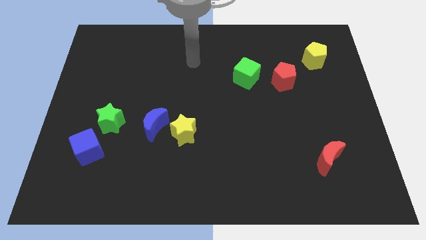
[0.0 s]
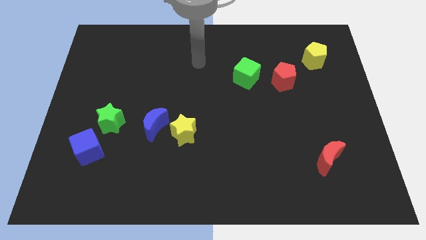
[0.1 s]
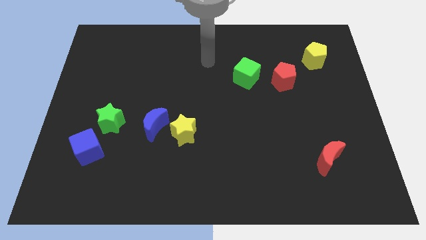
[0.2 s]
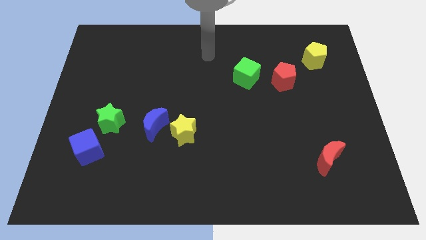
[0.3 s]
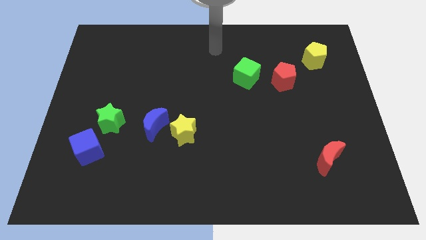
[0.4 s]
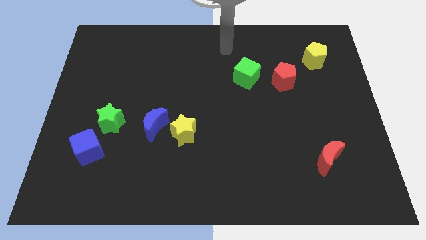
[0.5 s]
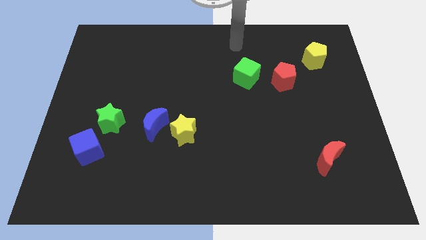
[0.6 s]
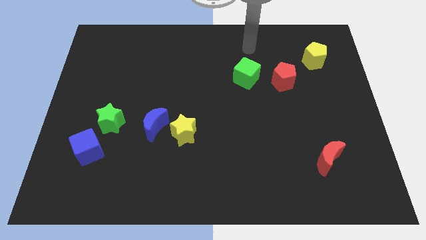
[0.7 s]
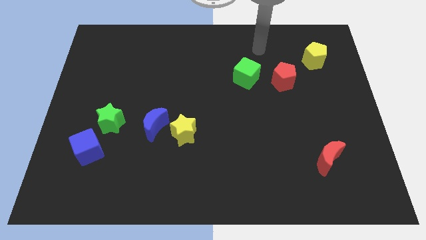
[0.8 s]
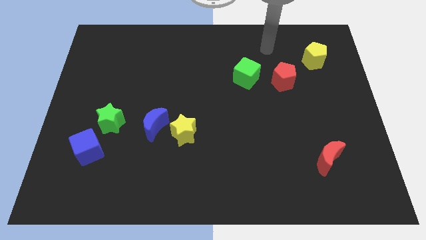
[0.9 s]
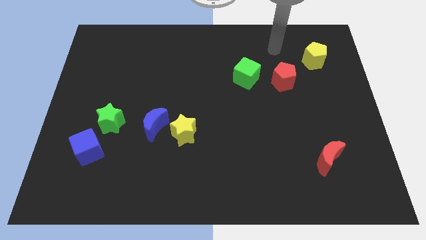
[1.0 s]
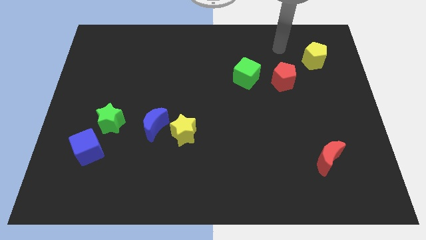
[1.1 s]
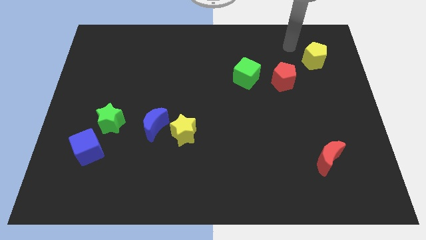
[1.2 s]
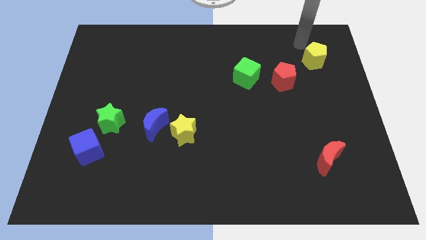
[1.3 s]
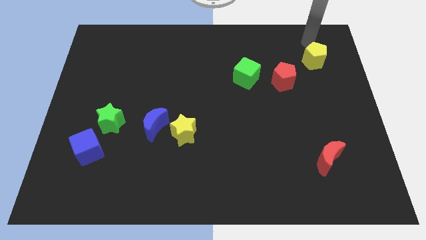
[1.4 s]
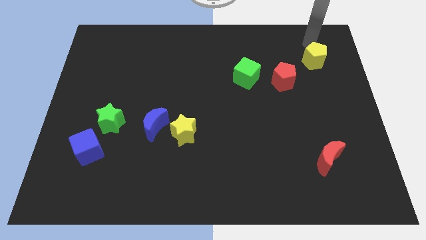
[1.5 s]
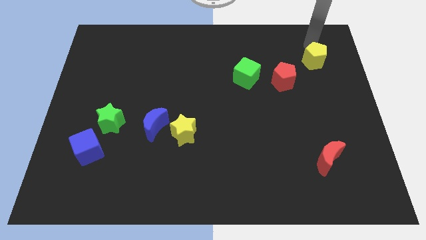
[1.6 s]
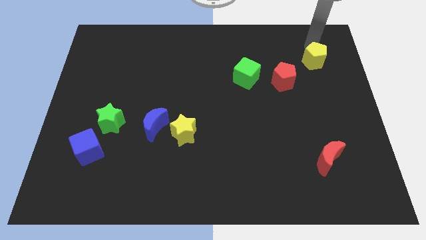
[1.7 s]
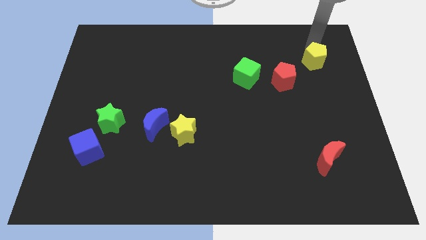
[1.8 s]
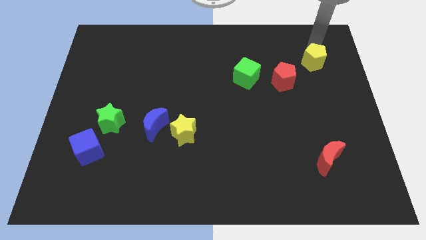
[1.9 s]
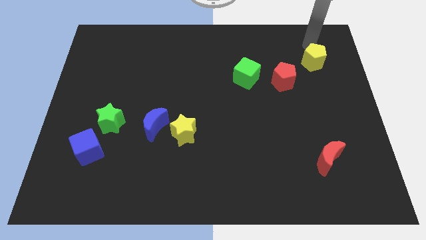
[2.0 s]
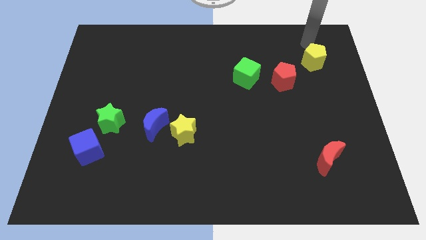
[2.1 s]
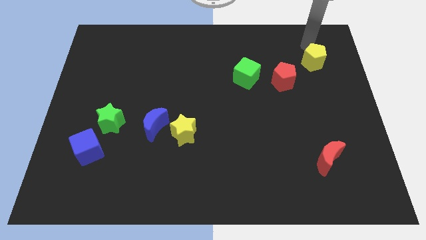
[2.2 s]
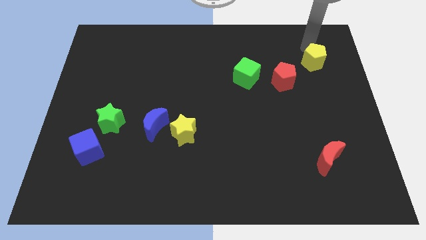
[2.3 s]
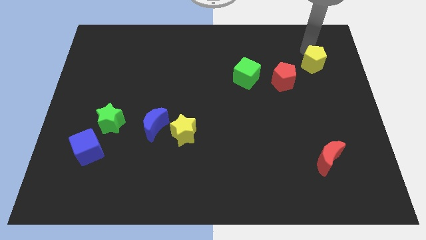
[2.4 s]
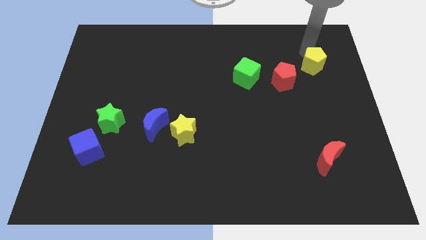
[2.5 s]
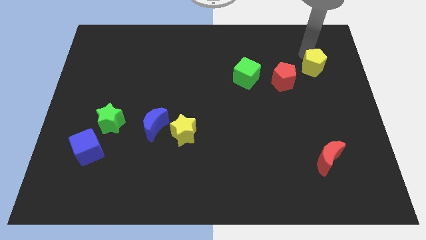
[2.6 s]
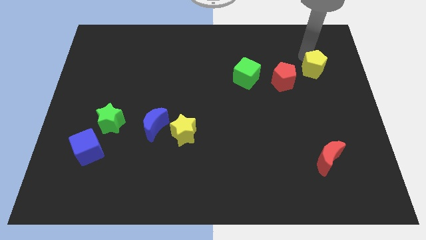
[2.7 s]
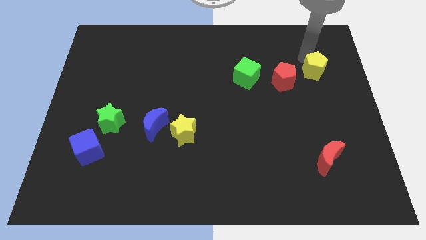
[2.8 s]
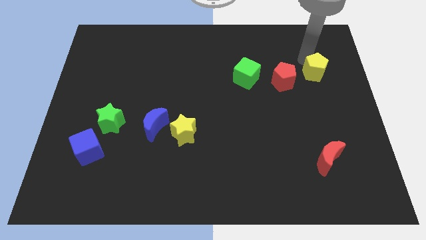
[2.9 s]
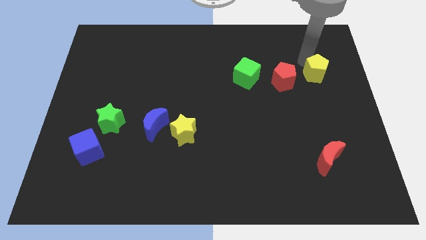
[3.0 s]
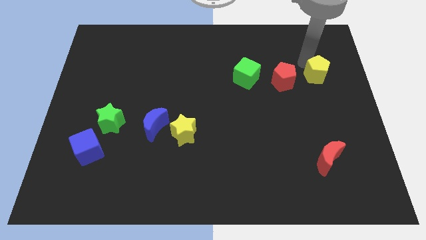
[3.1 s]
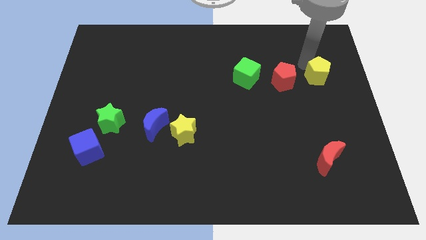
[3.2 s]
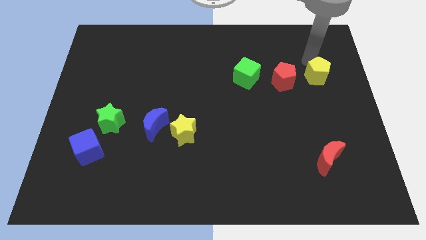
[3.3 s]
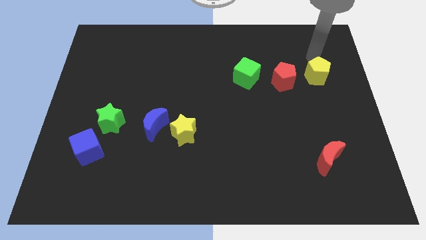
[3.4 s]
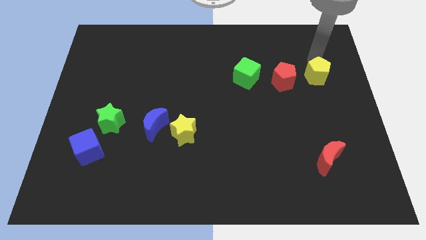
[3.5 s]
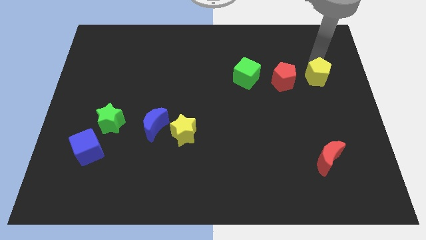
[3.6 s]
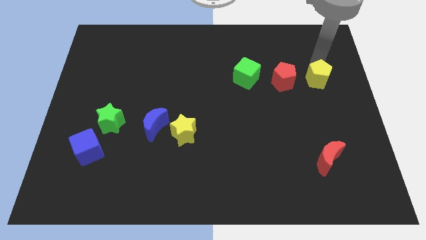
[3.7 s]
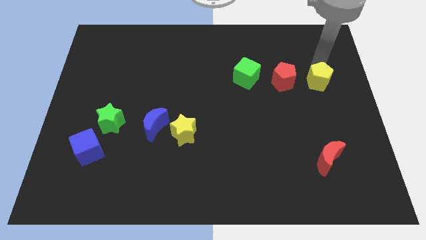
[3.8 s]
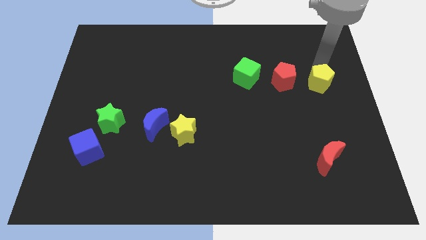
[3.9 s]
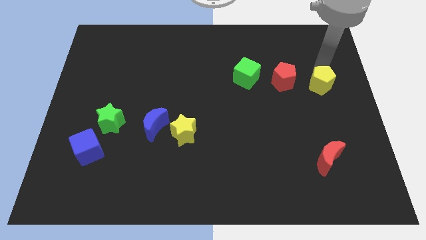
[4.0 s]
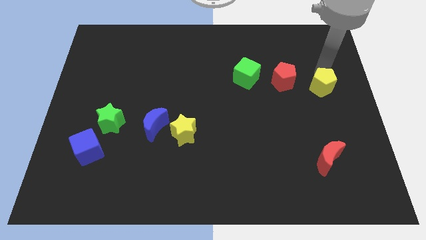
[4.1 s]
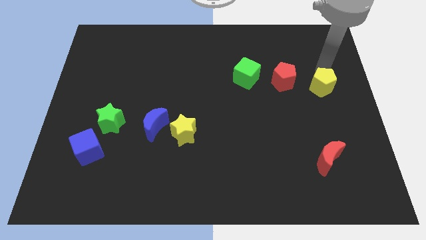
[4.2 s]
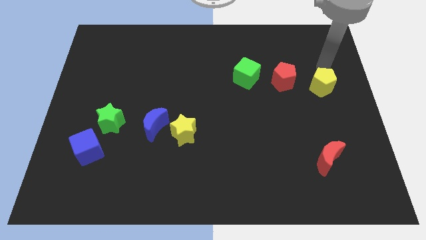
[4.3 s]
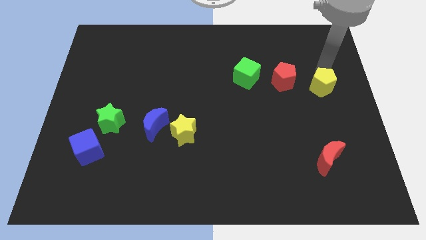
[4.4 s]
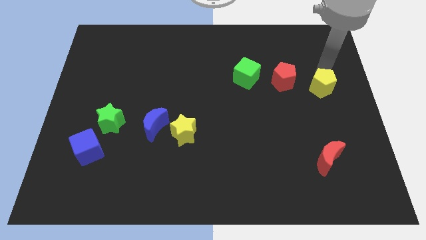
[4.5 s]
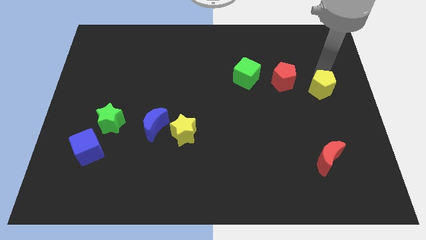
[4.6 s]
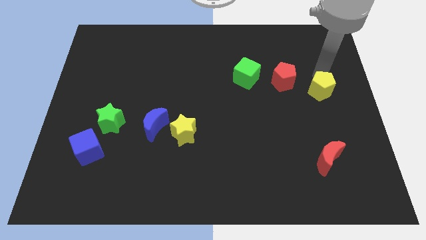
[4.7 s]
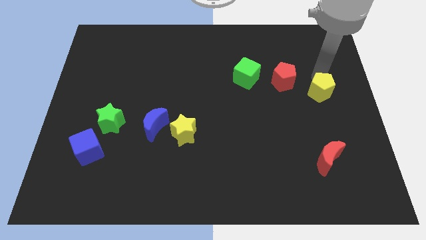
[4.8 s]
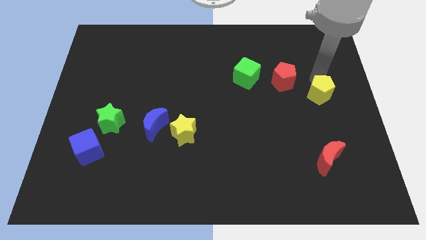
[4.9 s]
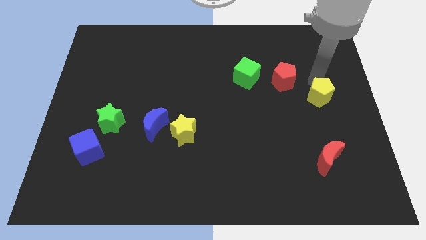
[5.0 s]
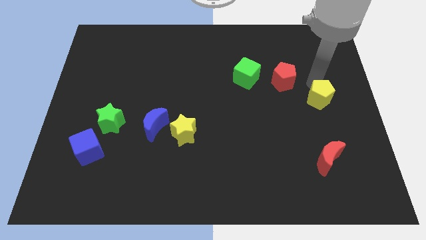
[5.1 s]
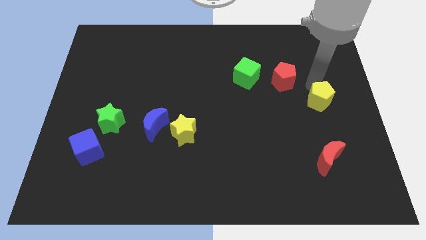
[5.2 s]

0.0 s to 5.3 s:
slide the yellow pentagon to the top side of the red moon

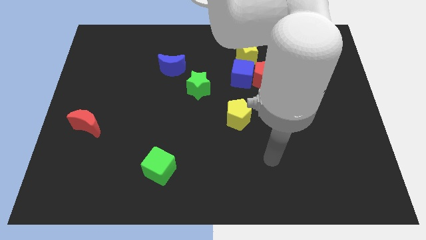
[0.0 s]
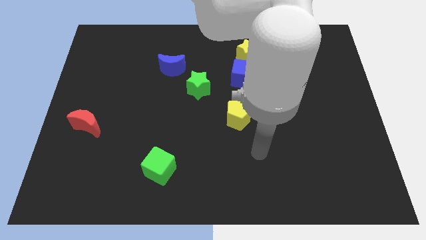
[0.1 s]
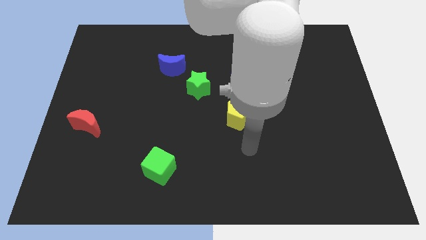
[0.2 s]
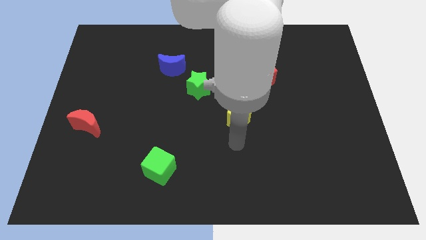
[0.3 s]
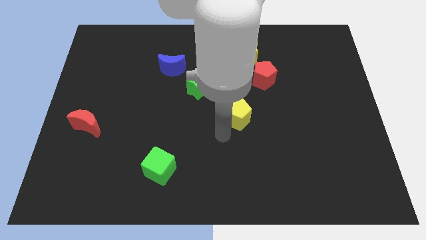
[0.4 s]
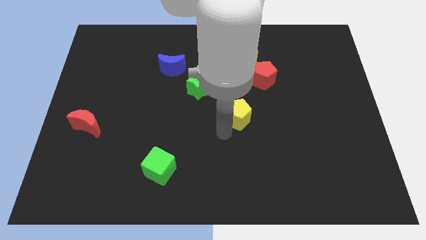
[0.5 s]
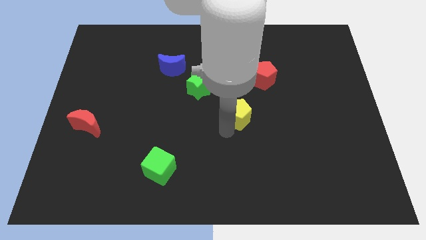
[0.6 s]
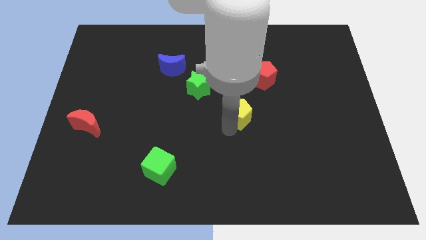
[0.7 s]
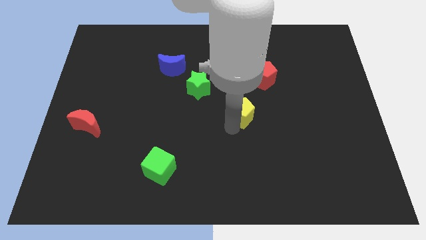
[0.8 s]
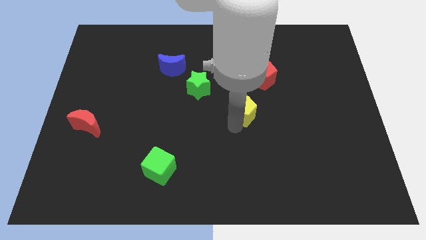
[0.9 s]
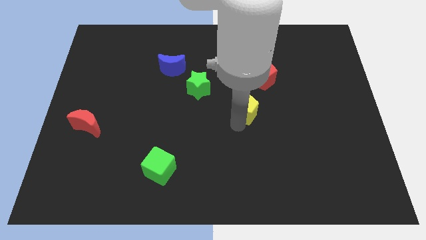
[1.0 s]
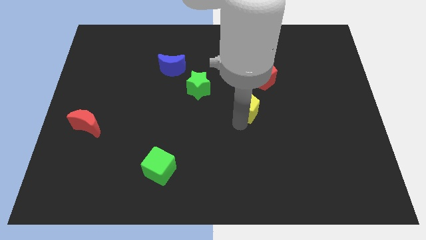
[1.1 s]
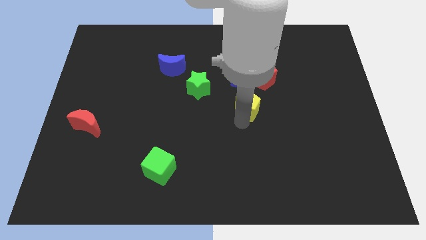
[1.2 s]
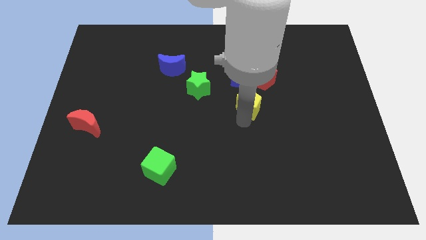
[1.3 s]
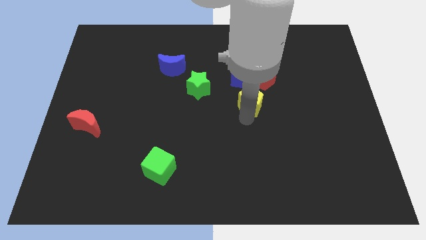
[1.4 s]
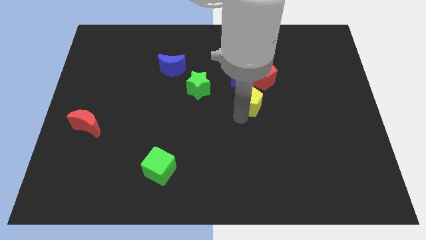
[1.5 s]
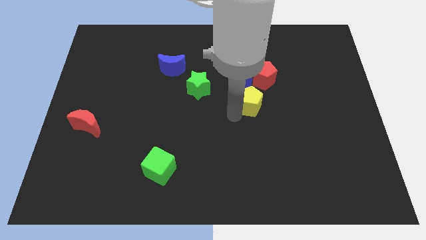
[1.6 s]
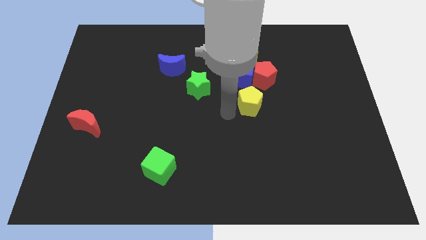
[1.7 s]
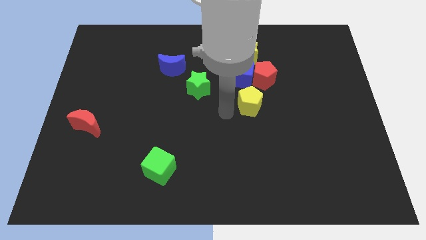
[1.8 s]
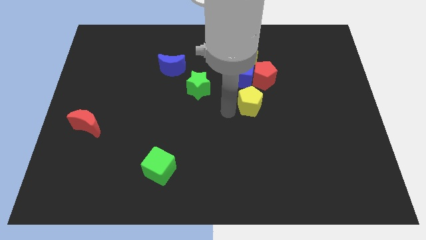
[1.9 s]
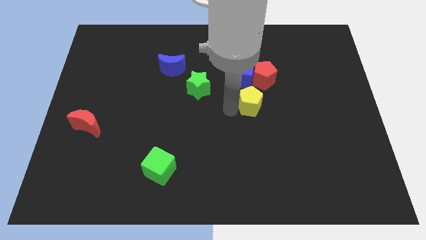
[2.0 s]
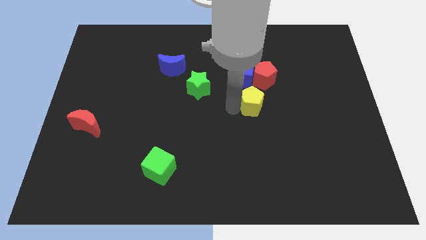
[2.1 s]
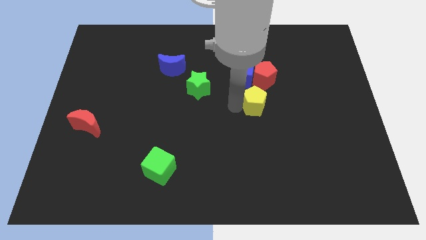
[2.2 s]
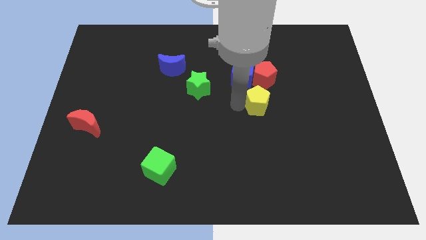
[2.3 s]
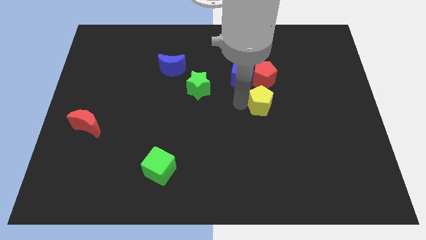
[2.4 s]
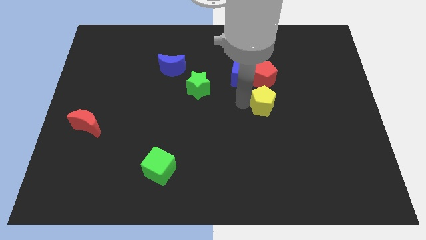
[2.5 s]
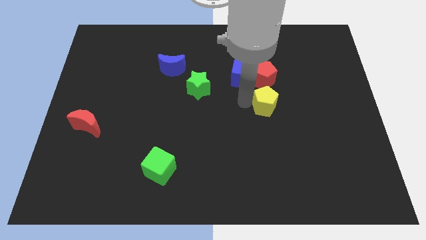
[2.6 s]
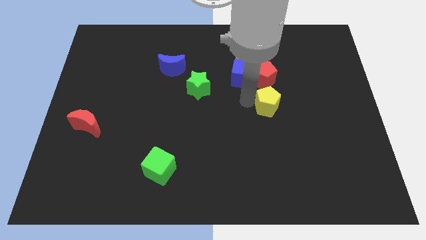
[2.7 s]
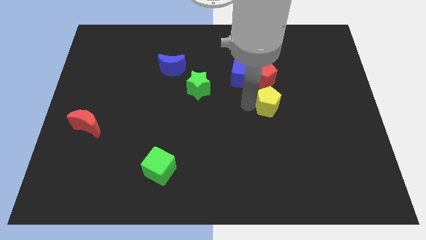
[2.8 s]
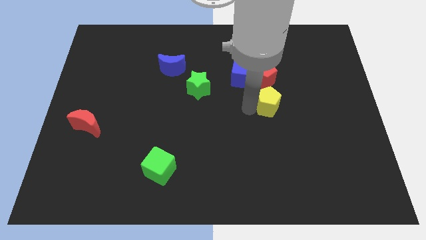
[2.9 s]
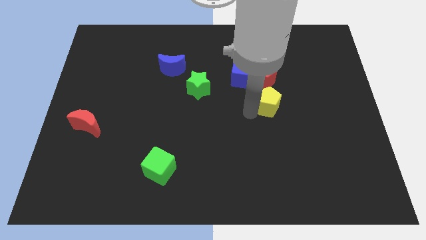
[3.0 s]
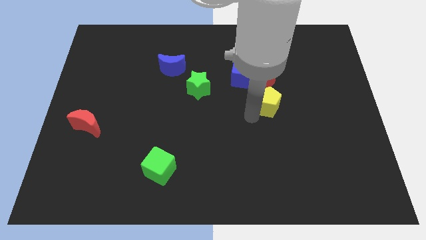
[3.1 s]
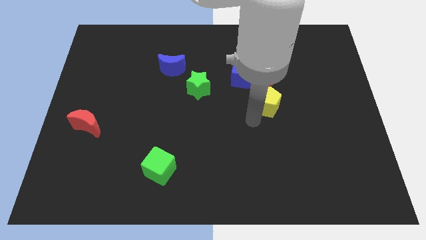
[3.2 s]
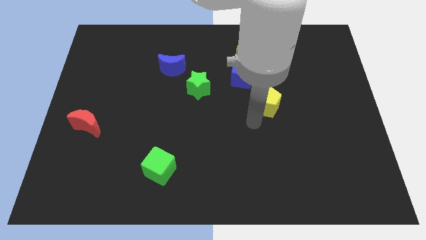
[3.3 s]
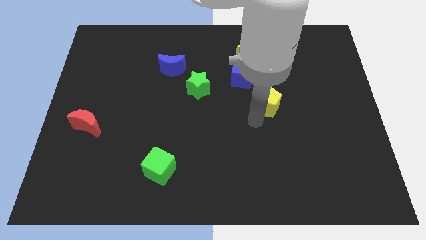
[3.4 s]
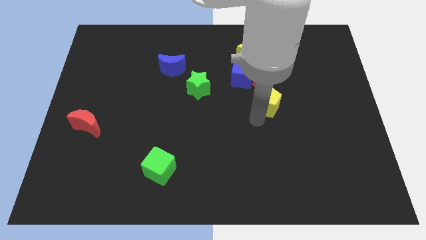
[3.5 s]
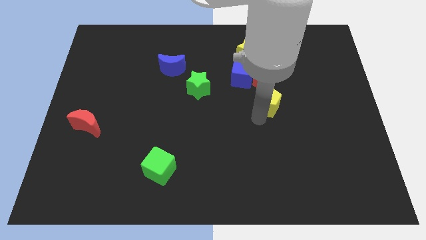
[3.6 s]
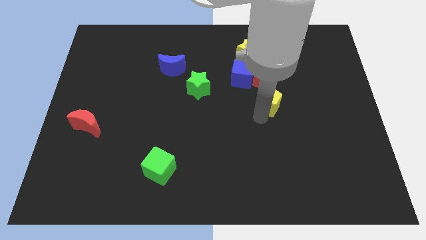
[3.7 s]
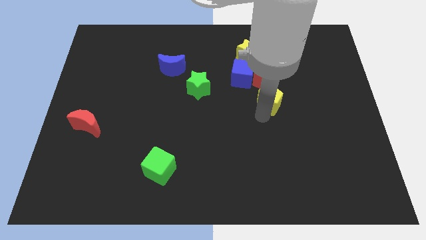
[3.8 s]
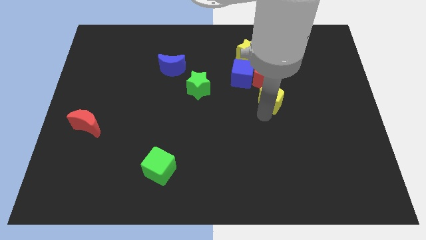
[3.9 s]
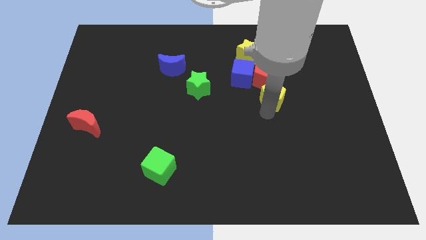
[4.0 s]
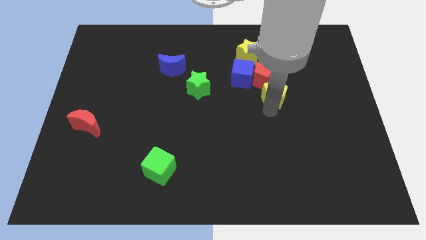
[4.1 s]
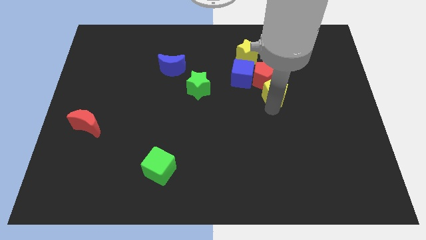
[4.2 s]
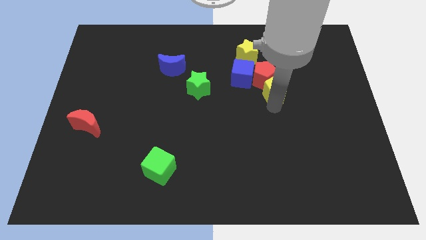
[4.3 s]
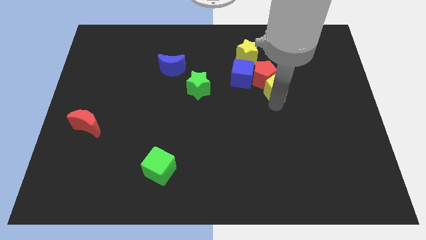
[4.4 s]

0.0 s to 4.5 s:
slide the yellow pentagon just right of the blue cube
